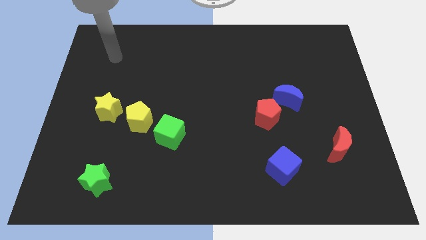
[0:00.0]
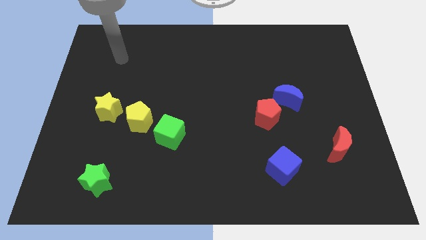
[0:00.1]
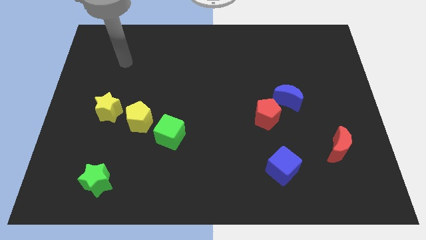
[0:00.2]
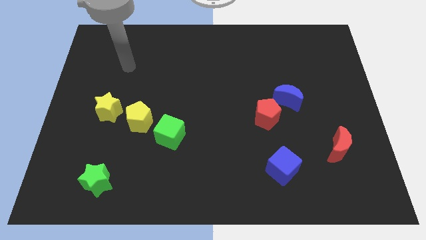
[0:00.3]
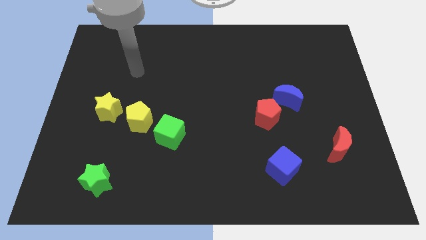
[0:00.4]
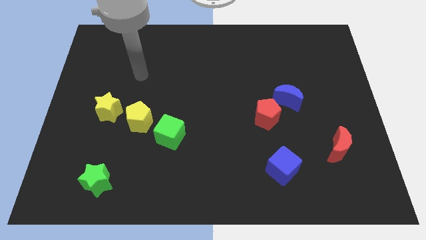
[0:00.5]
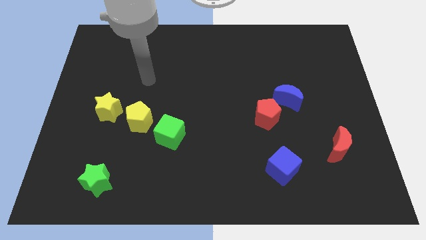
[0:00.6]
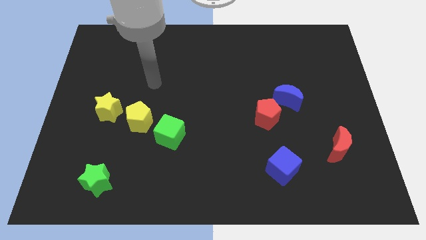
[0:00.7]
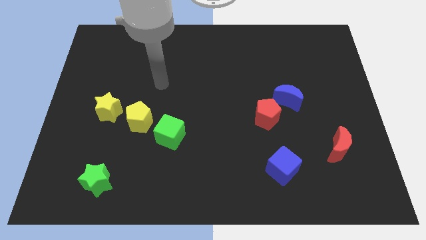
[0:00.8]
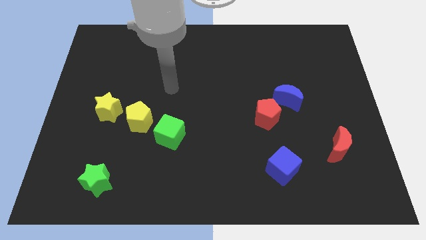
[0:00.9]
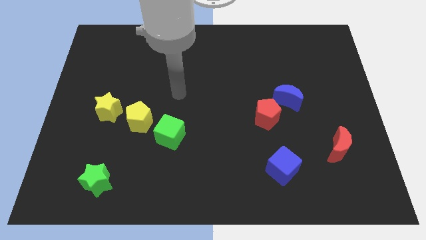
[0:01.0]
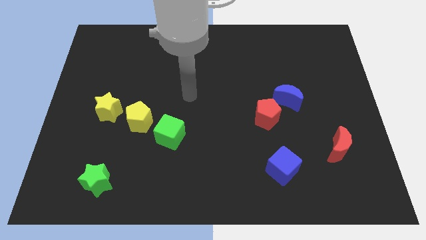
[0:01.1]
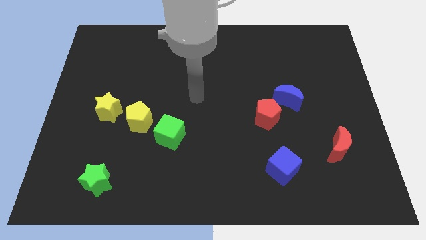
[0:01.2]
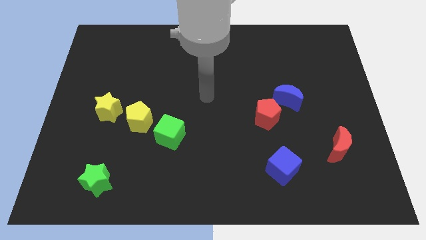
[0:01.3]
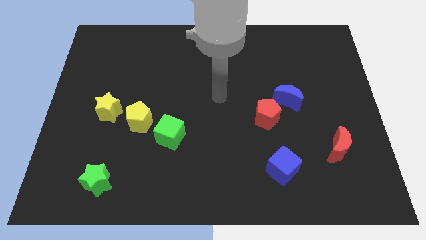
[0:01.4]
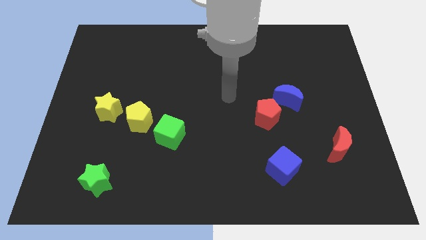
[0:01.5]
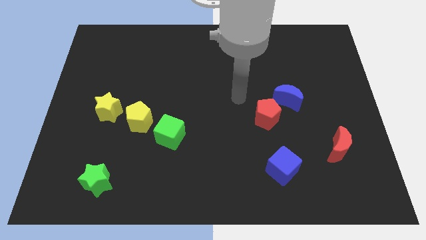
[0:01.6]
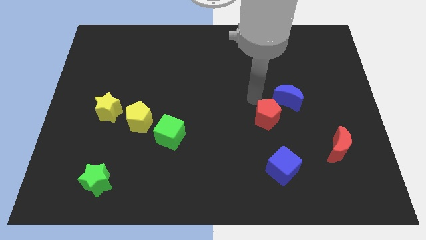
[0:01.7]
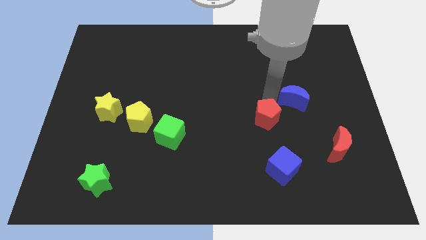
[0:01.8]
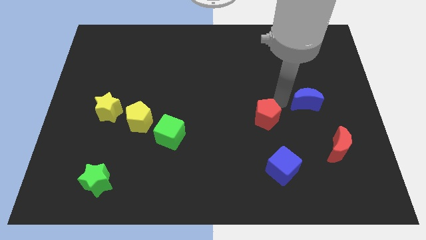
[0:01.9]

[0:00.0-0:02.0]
separate the red pentagon from the blue moon

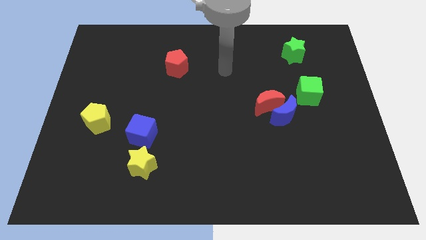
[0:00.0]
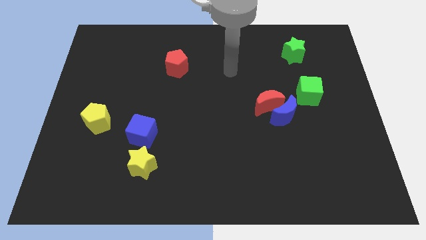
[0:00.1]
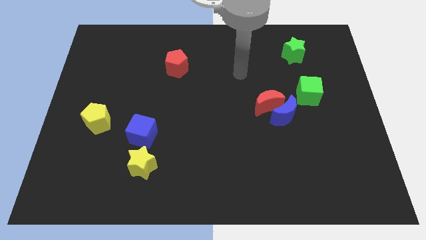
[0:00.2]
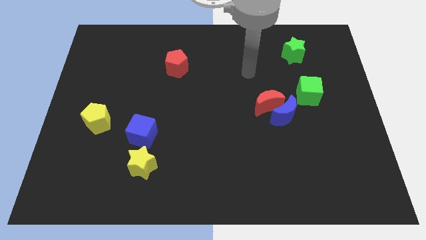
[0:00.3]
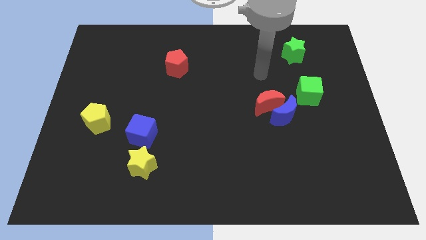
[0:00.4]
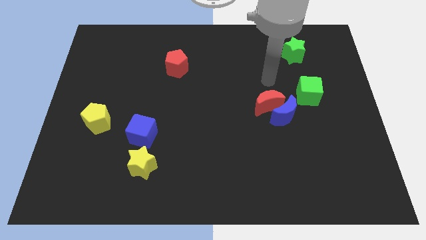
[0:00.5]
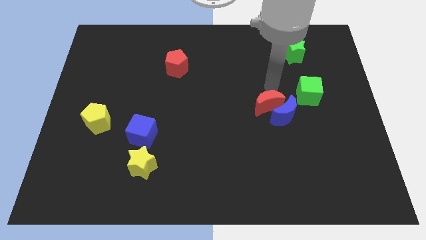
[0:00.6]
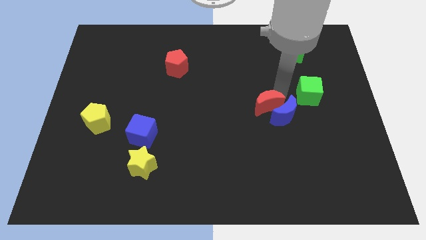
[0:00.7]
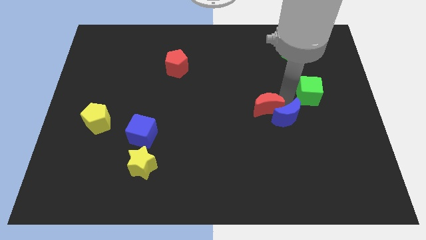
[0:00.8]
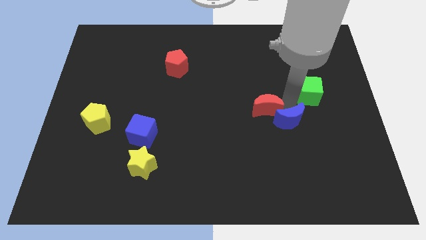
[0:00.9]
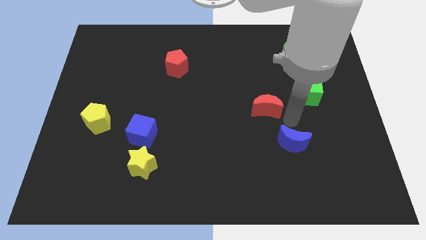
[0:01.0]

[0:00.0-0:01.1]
pull the red moon apart from the blue moon

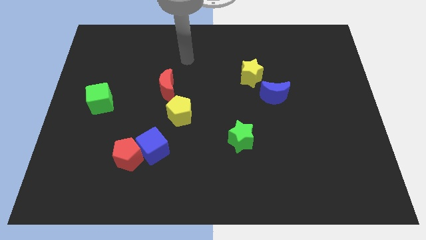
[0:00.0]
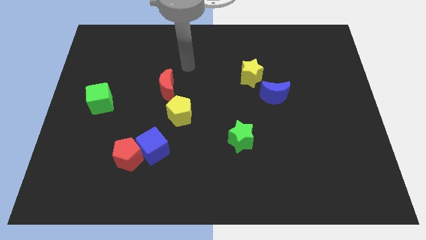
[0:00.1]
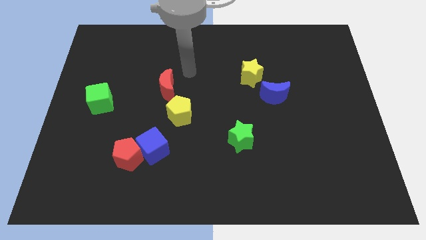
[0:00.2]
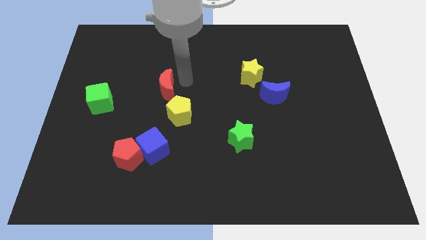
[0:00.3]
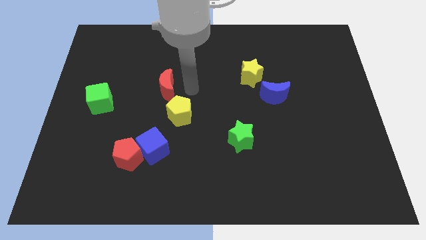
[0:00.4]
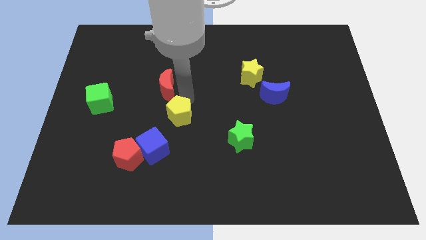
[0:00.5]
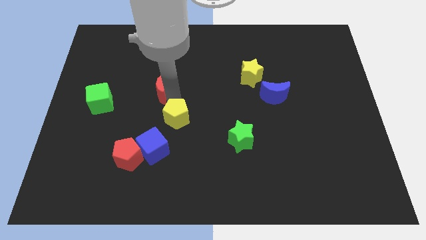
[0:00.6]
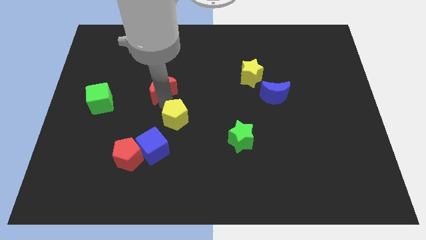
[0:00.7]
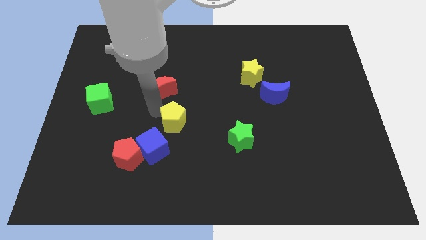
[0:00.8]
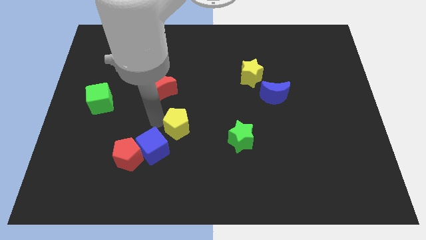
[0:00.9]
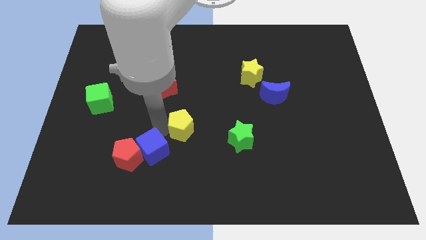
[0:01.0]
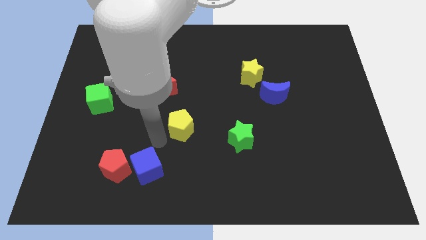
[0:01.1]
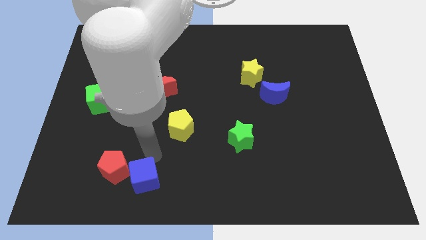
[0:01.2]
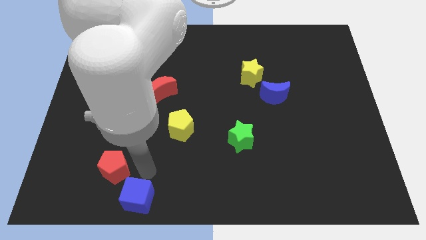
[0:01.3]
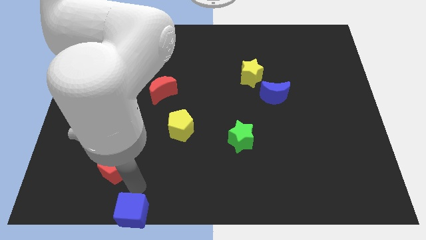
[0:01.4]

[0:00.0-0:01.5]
move the red pentagon away from the blue cube

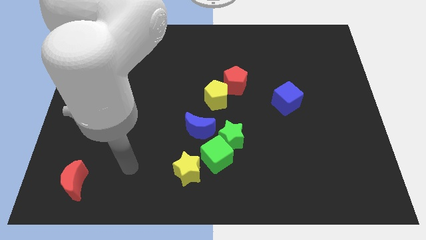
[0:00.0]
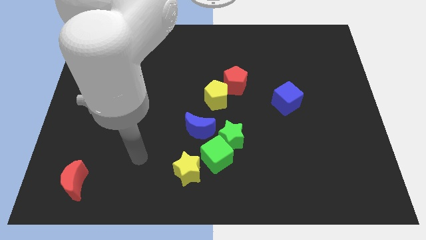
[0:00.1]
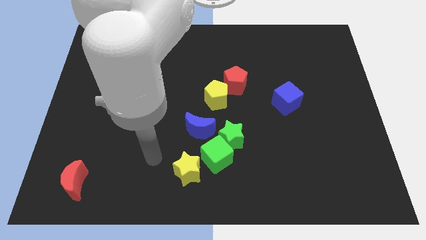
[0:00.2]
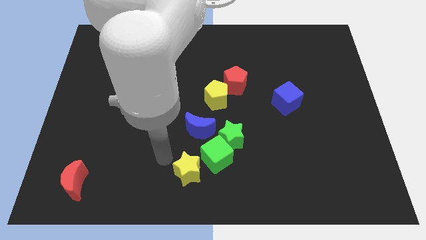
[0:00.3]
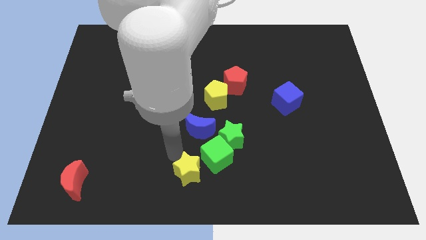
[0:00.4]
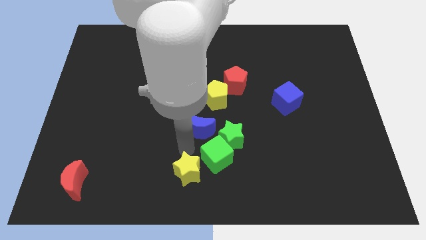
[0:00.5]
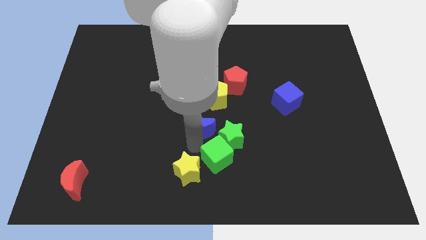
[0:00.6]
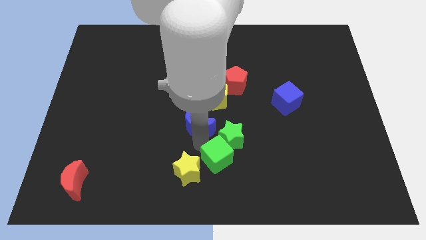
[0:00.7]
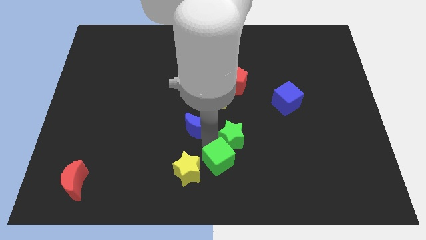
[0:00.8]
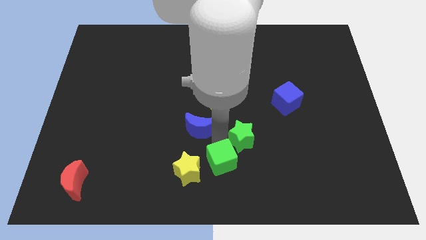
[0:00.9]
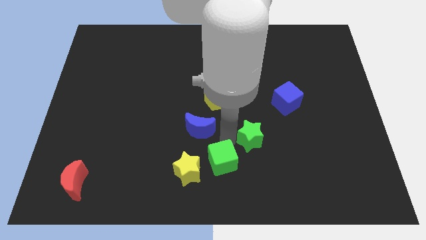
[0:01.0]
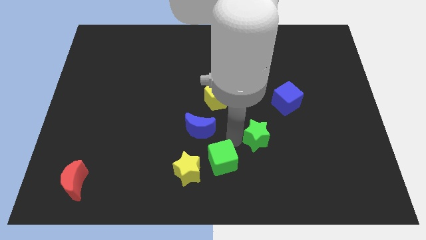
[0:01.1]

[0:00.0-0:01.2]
move the green star away from the green cube and blue moon

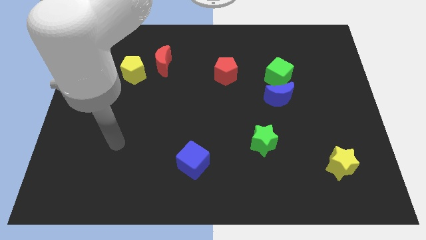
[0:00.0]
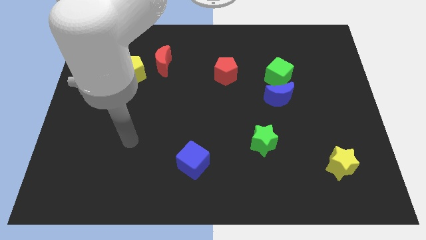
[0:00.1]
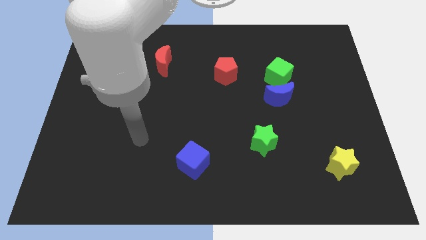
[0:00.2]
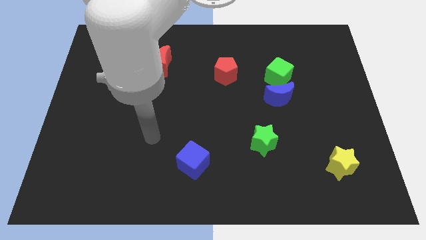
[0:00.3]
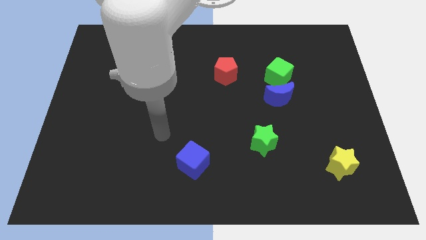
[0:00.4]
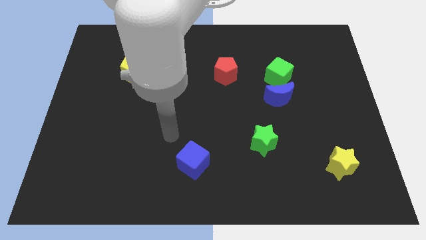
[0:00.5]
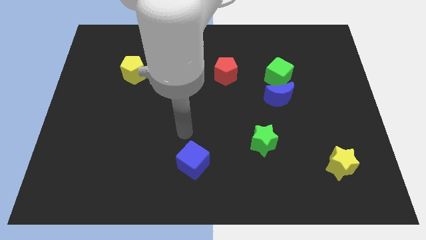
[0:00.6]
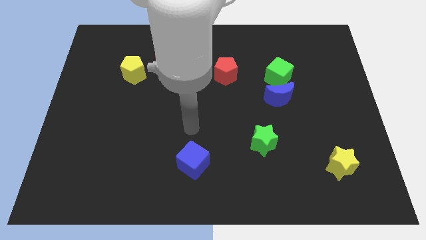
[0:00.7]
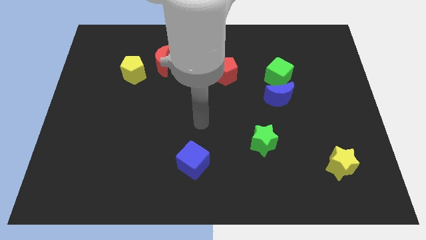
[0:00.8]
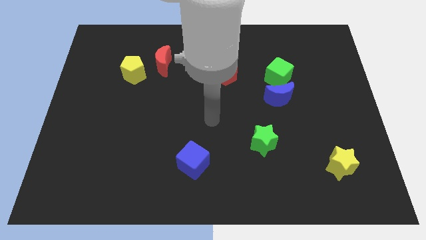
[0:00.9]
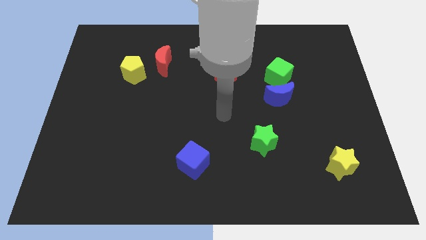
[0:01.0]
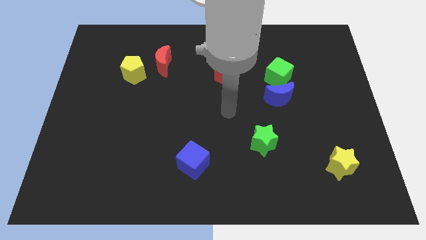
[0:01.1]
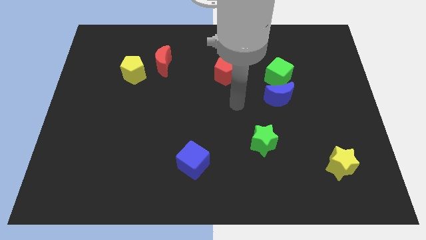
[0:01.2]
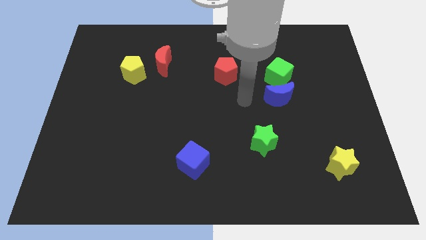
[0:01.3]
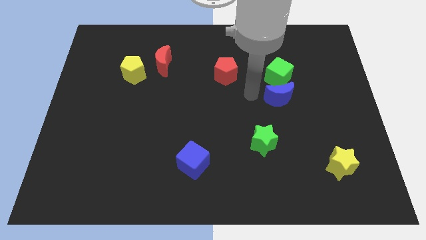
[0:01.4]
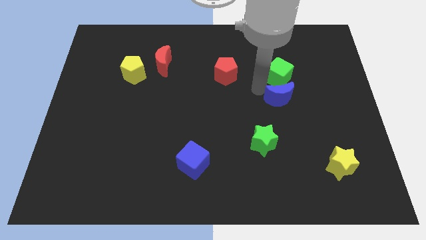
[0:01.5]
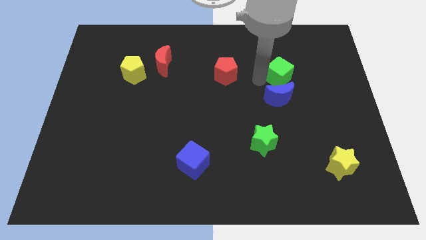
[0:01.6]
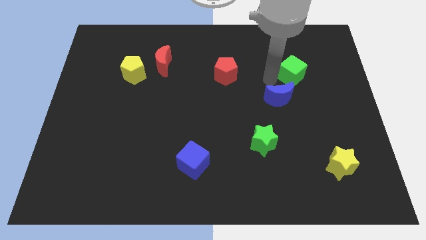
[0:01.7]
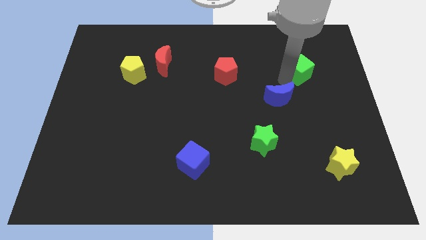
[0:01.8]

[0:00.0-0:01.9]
move the blue moon away from the green cube

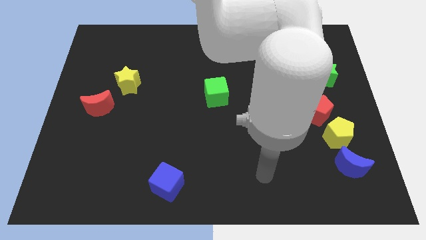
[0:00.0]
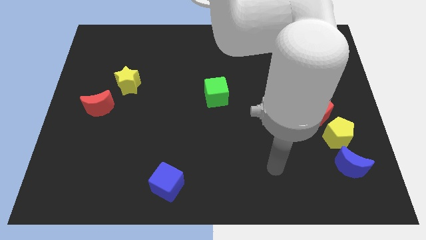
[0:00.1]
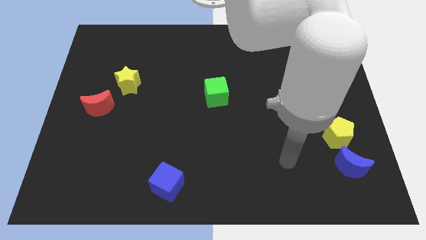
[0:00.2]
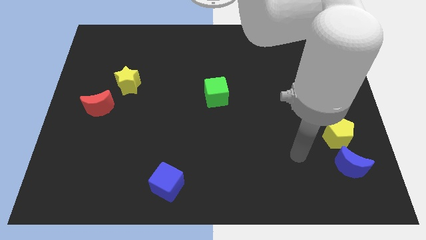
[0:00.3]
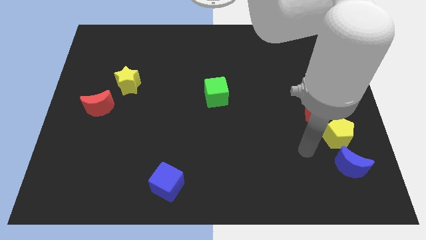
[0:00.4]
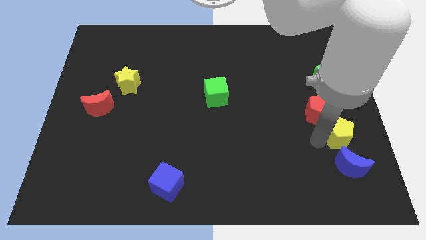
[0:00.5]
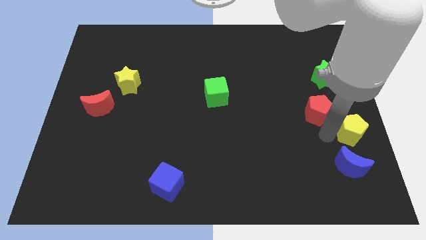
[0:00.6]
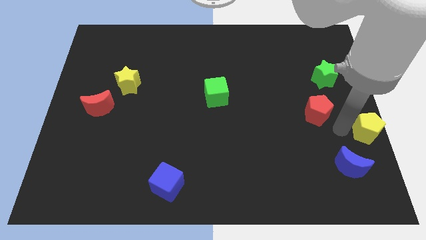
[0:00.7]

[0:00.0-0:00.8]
move the red pentagon away from the yellow pentagon

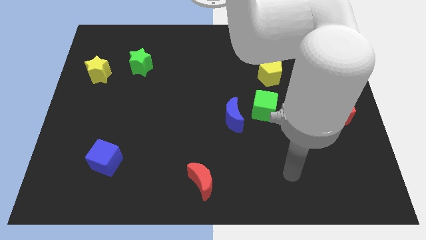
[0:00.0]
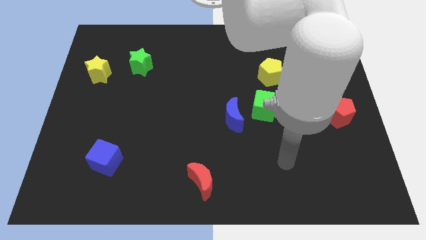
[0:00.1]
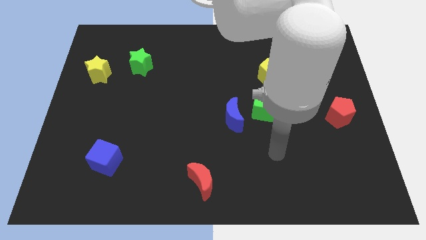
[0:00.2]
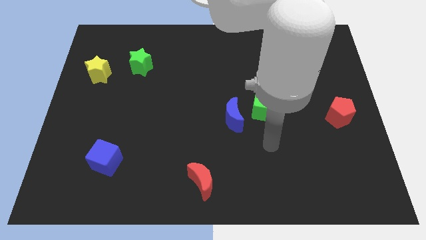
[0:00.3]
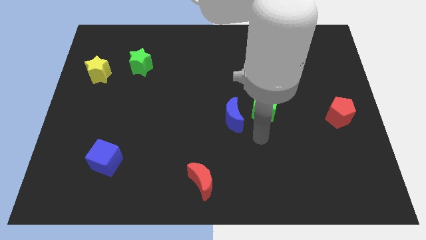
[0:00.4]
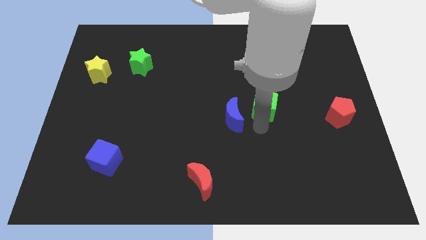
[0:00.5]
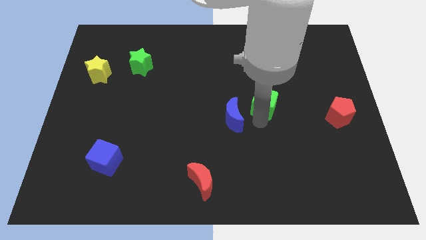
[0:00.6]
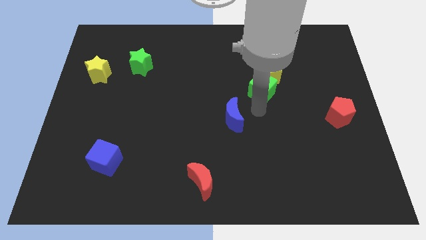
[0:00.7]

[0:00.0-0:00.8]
pull the blue moon apart from the green cube
